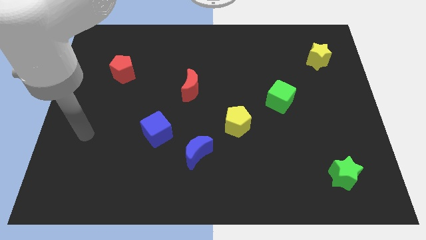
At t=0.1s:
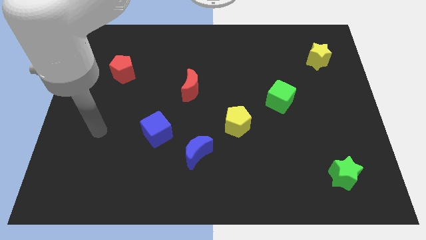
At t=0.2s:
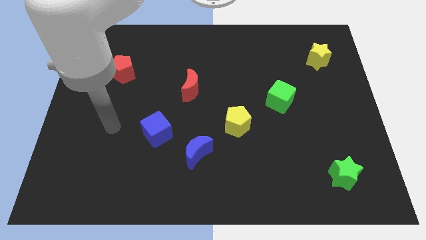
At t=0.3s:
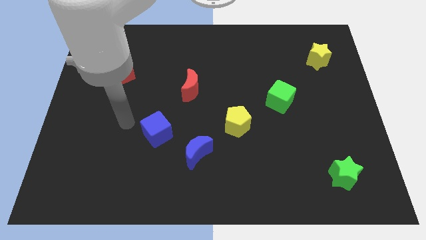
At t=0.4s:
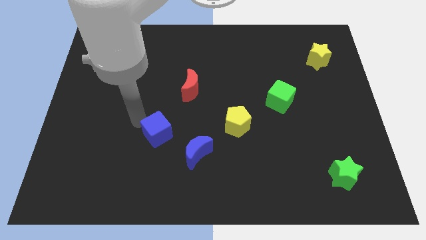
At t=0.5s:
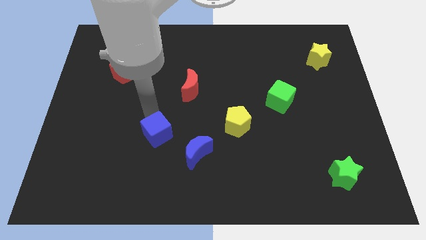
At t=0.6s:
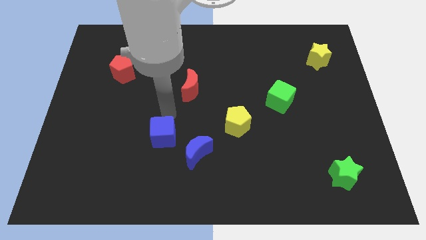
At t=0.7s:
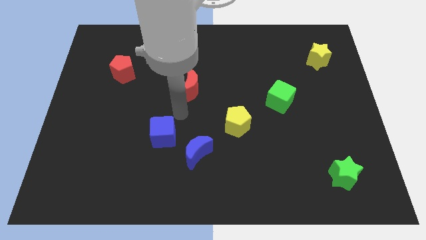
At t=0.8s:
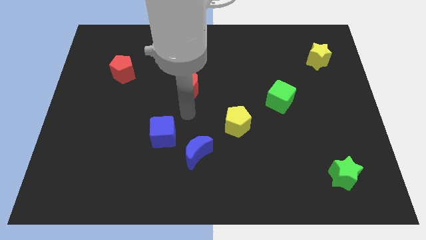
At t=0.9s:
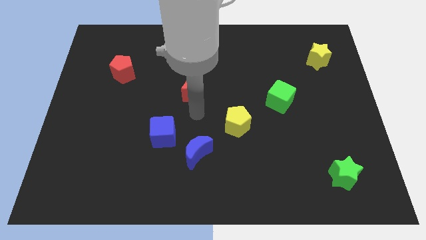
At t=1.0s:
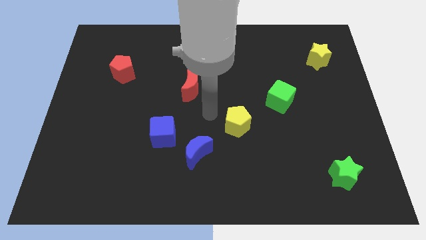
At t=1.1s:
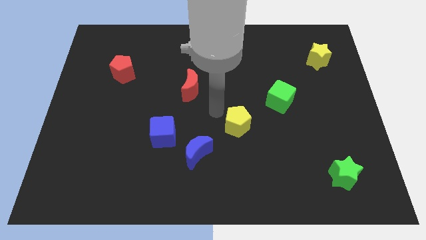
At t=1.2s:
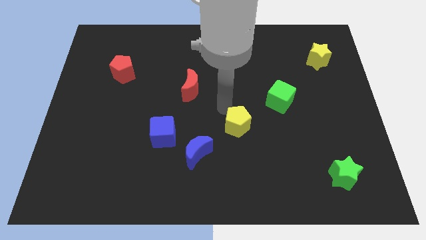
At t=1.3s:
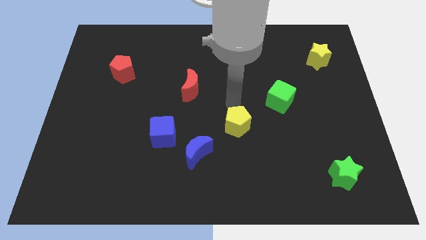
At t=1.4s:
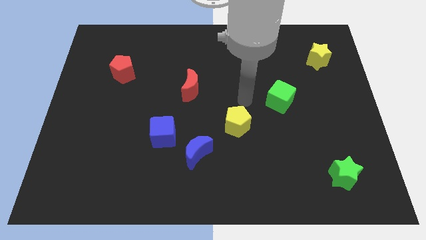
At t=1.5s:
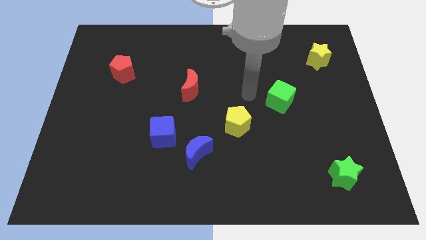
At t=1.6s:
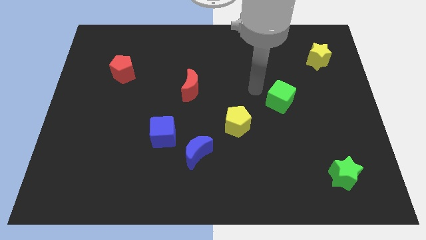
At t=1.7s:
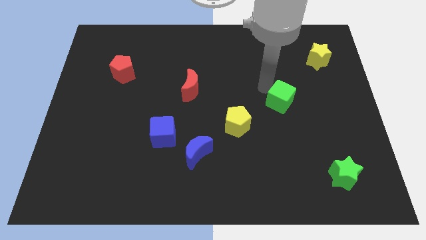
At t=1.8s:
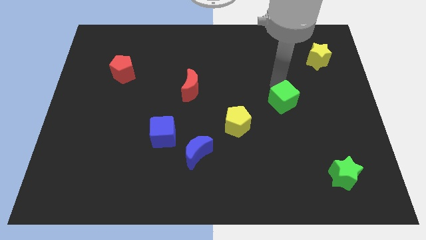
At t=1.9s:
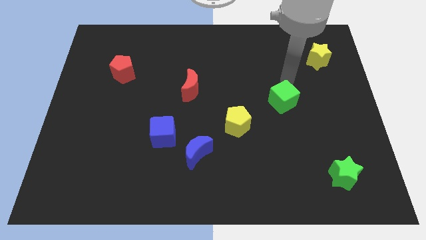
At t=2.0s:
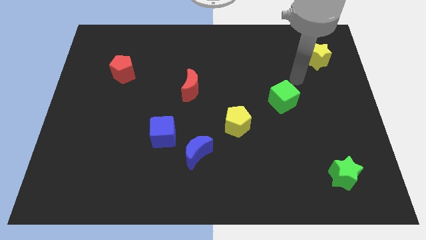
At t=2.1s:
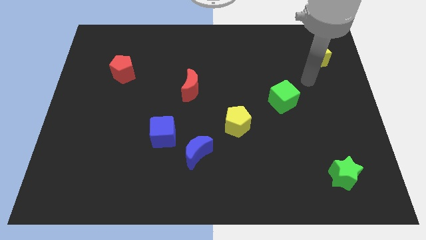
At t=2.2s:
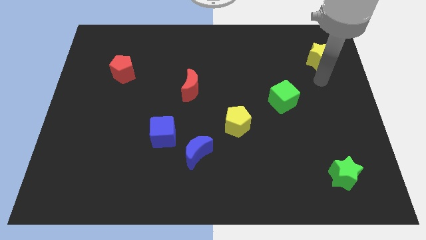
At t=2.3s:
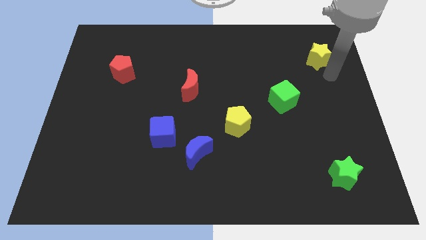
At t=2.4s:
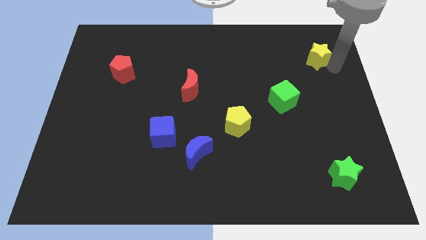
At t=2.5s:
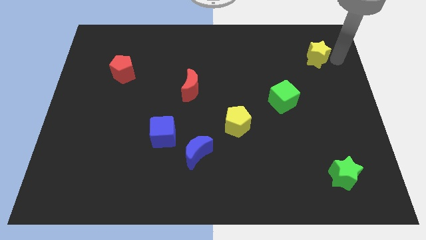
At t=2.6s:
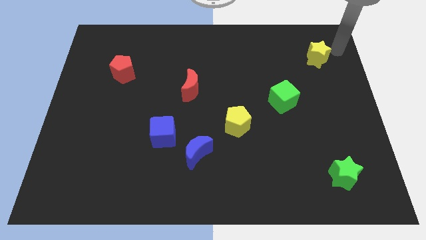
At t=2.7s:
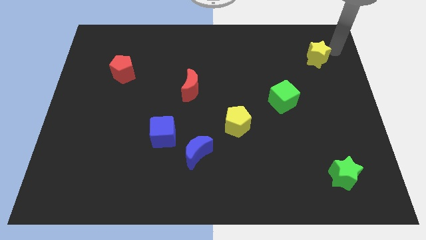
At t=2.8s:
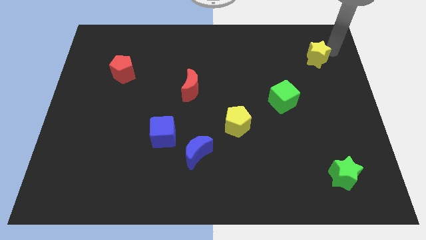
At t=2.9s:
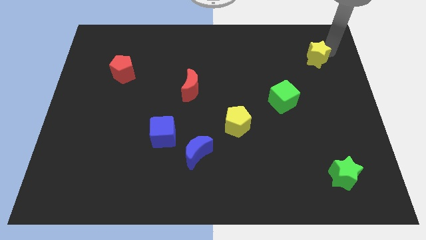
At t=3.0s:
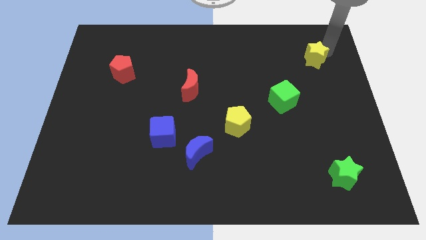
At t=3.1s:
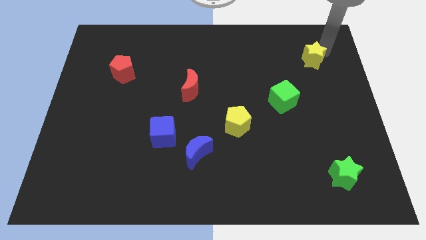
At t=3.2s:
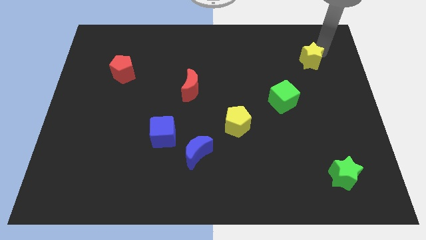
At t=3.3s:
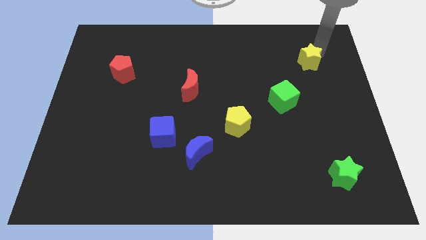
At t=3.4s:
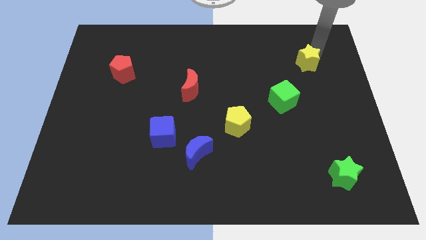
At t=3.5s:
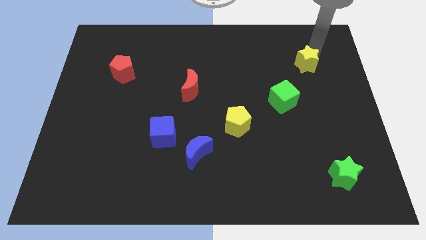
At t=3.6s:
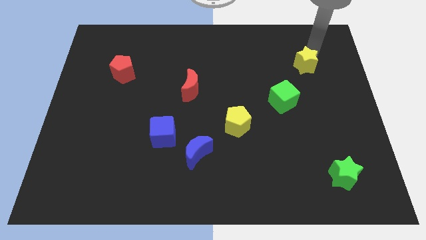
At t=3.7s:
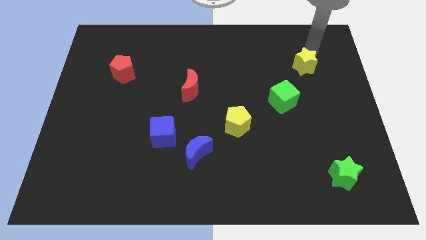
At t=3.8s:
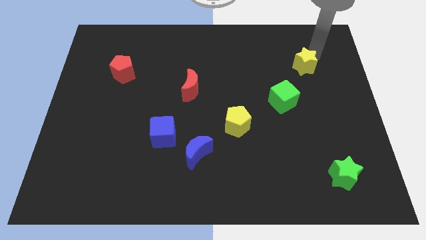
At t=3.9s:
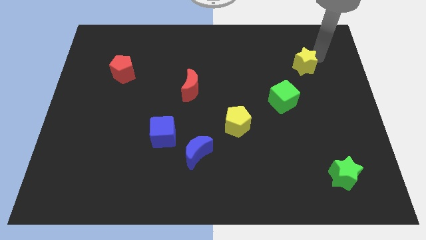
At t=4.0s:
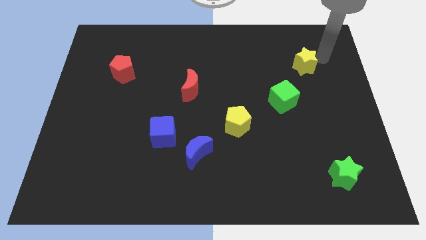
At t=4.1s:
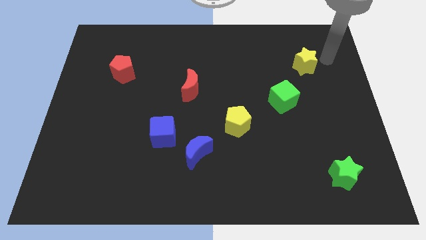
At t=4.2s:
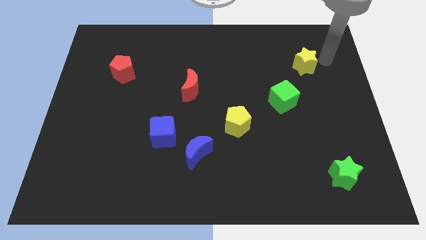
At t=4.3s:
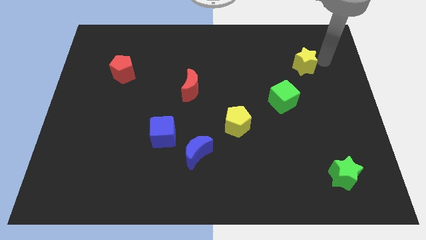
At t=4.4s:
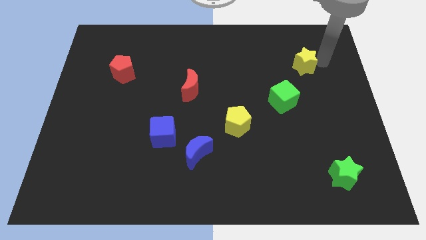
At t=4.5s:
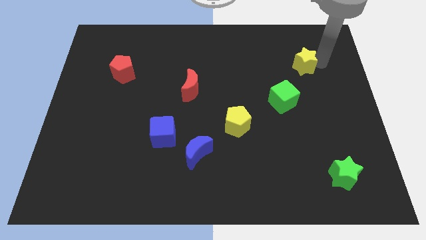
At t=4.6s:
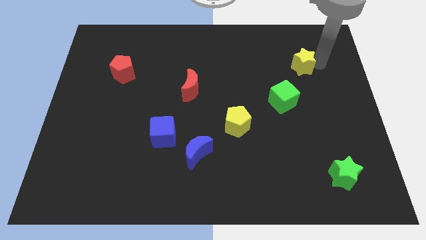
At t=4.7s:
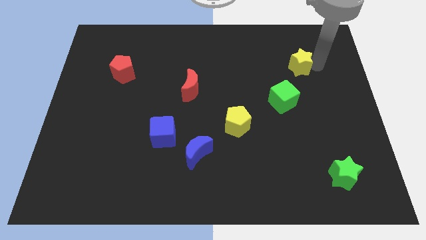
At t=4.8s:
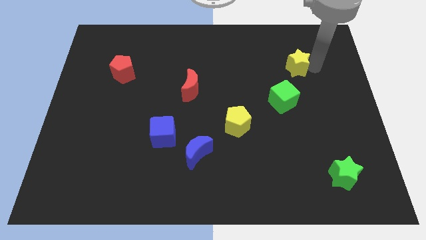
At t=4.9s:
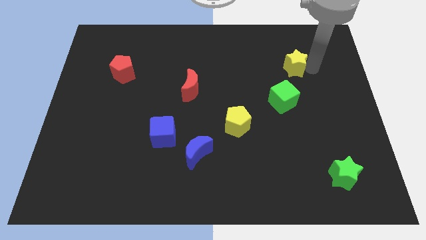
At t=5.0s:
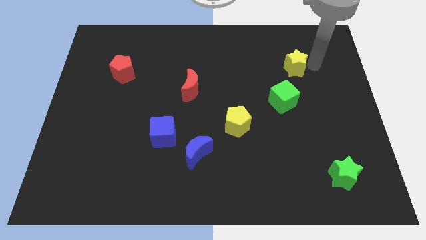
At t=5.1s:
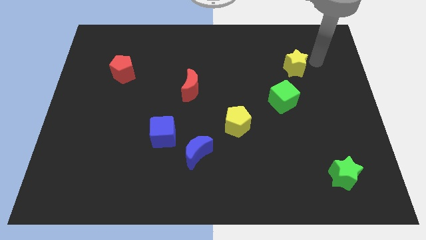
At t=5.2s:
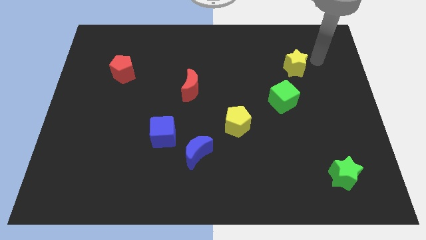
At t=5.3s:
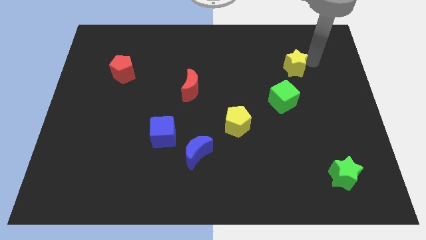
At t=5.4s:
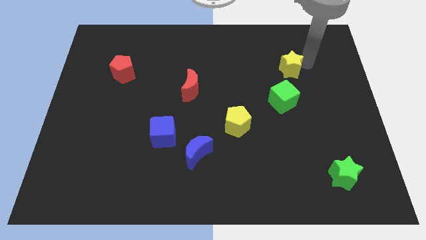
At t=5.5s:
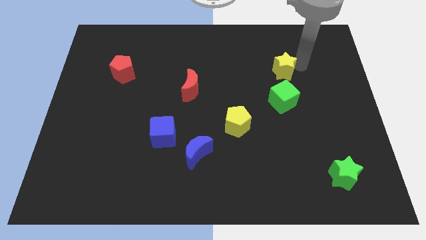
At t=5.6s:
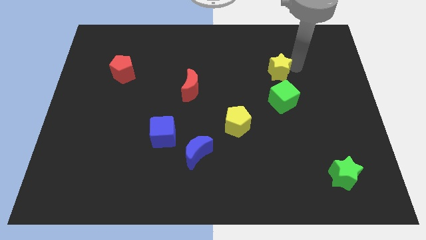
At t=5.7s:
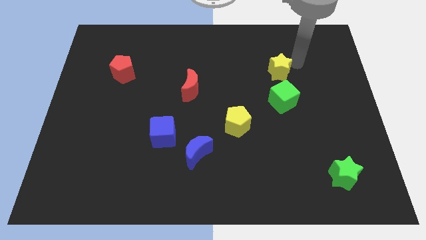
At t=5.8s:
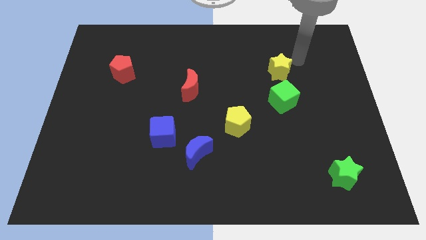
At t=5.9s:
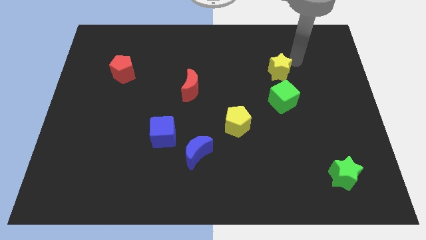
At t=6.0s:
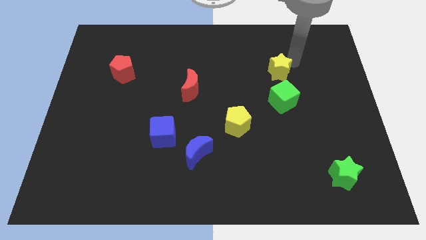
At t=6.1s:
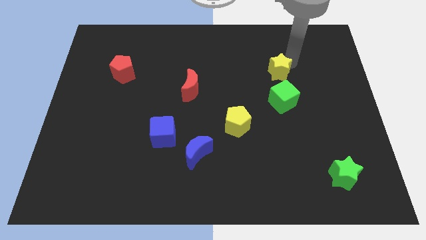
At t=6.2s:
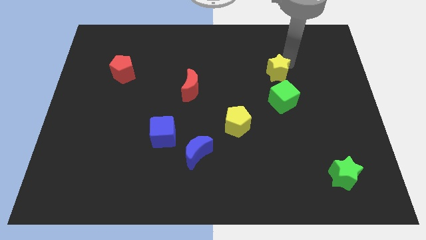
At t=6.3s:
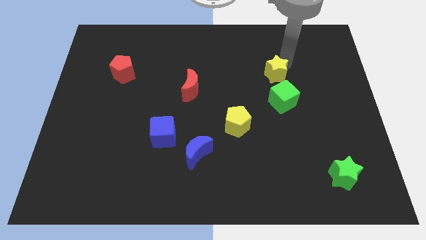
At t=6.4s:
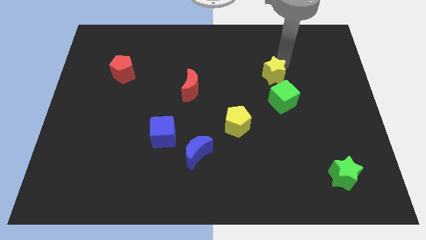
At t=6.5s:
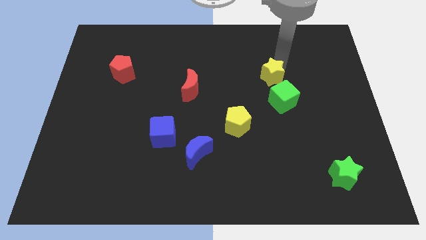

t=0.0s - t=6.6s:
slide the yellow star diagonally up and to the left of the green cube
